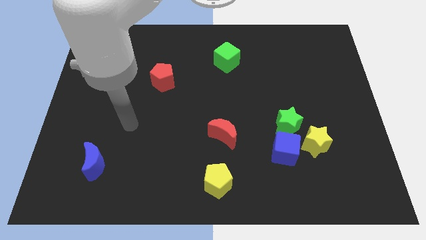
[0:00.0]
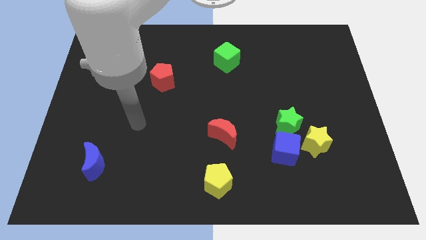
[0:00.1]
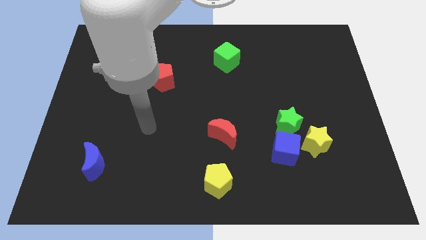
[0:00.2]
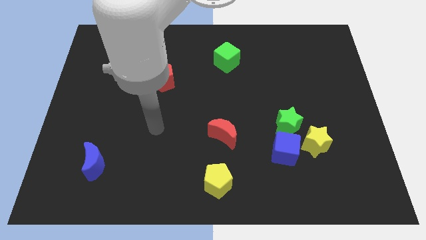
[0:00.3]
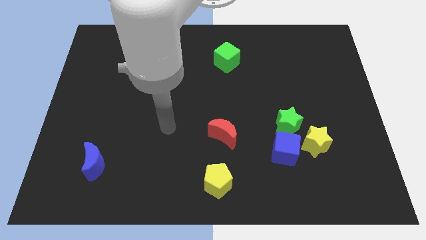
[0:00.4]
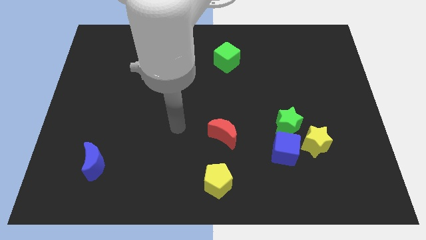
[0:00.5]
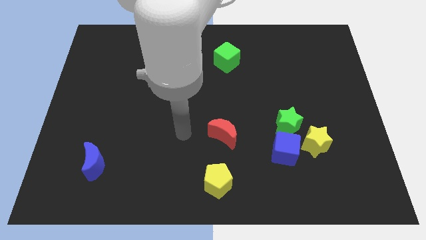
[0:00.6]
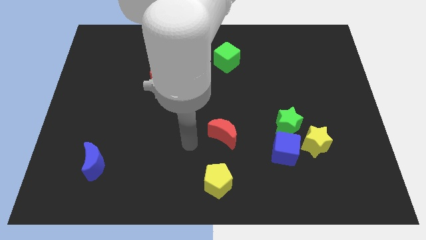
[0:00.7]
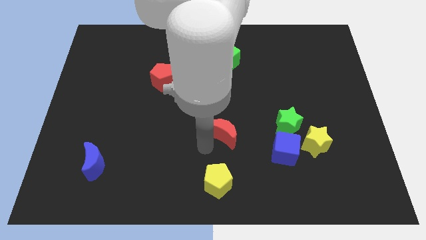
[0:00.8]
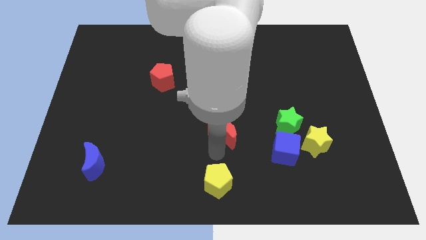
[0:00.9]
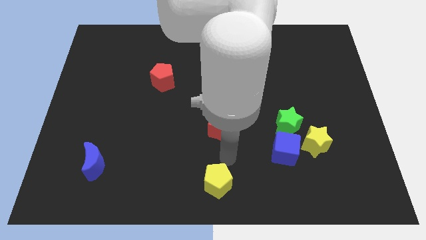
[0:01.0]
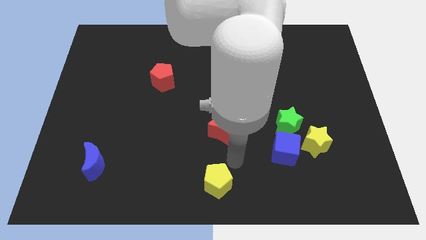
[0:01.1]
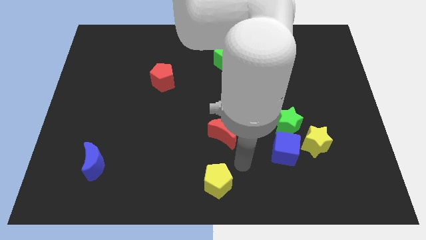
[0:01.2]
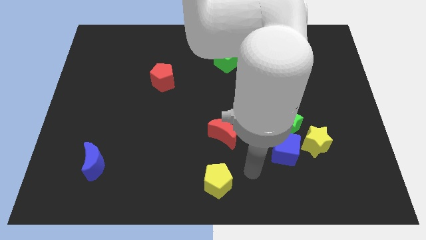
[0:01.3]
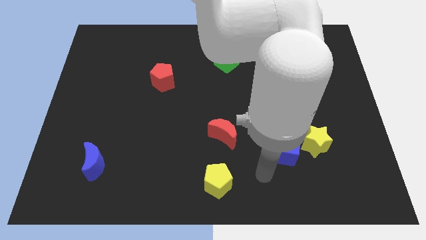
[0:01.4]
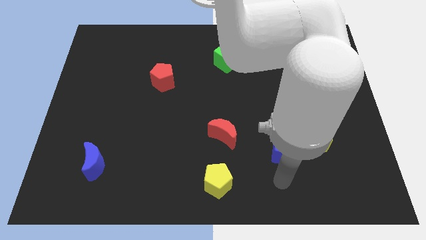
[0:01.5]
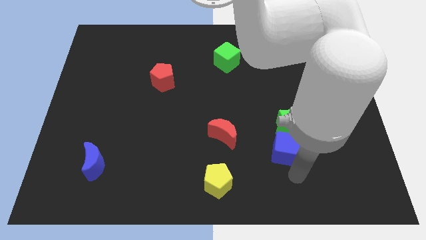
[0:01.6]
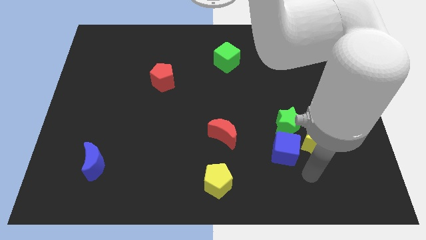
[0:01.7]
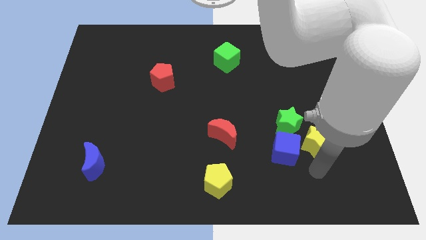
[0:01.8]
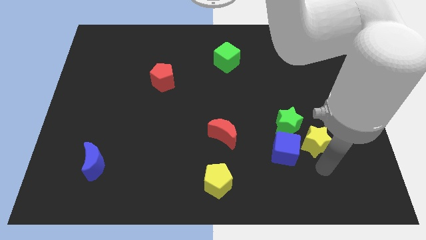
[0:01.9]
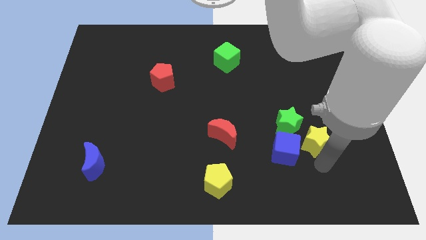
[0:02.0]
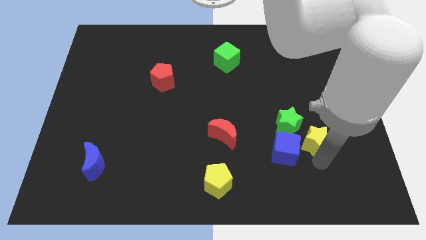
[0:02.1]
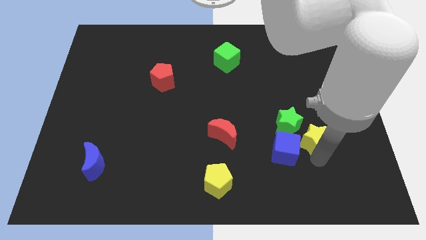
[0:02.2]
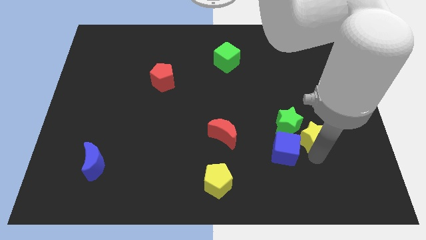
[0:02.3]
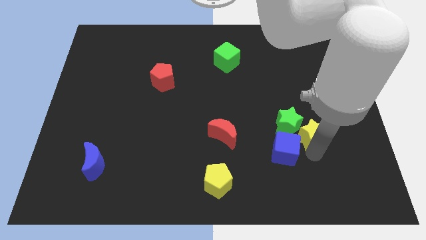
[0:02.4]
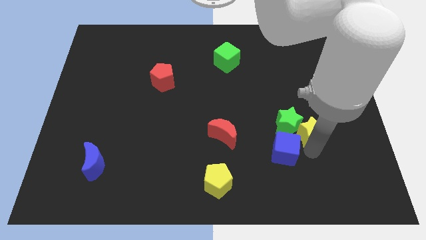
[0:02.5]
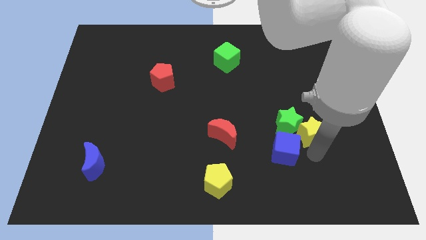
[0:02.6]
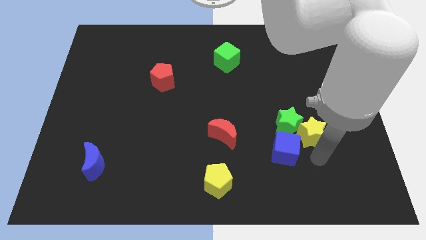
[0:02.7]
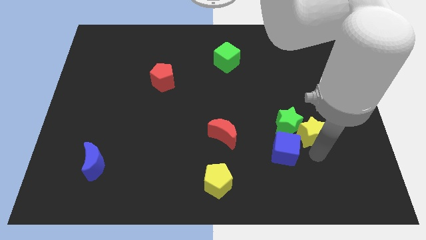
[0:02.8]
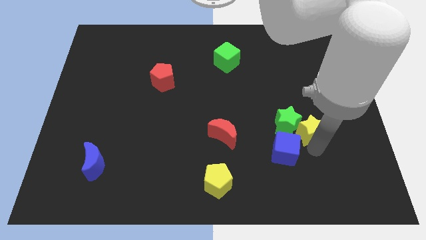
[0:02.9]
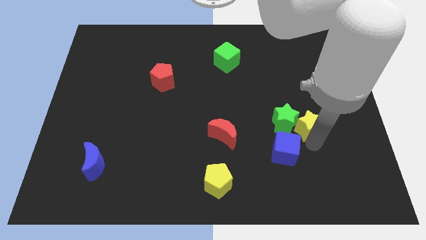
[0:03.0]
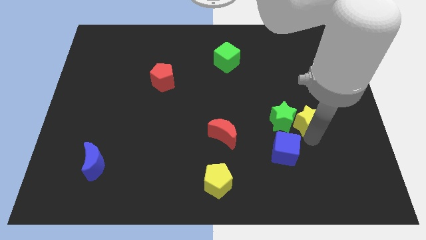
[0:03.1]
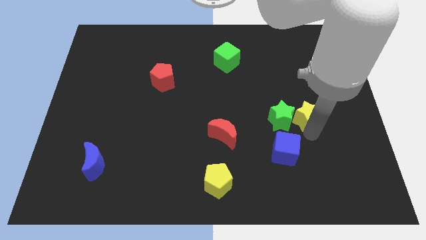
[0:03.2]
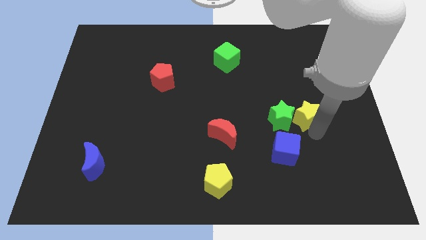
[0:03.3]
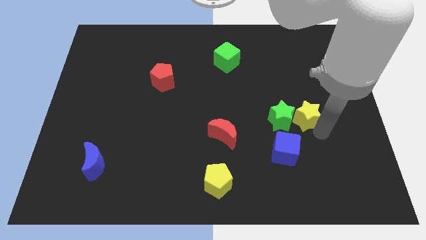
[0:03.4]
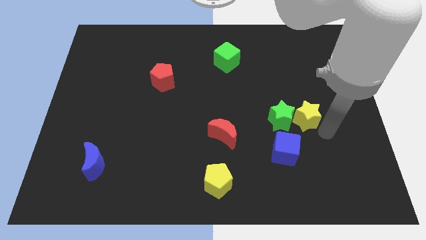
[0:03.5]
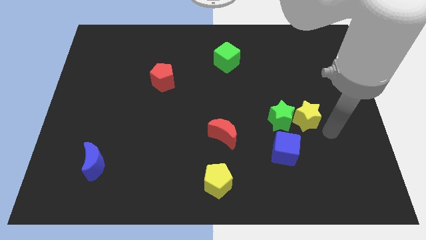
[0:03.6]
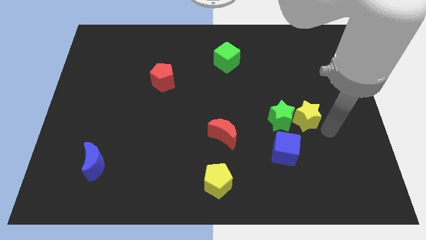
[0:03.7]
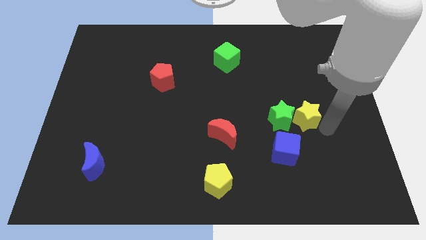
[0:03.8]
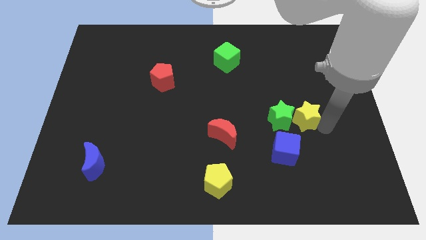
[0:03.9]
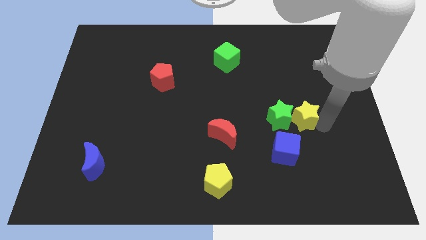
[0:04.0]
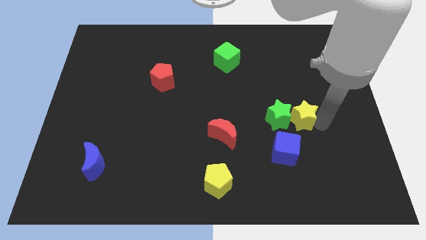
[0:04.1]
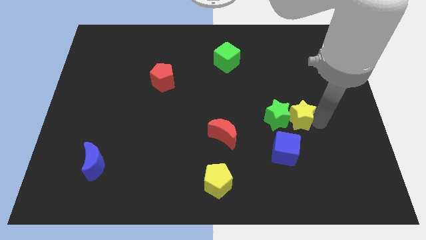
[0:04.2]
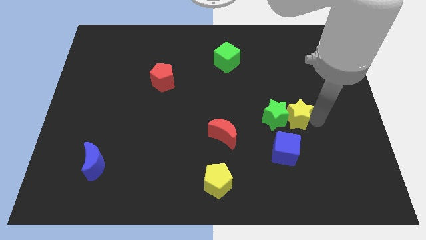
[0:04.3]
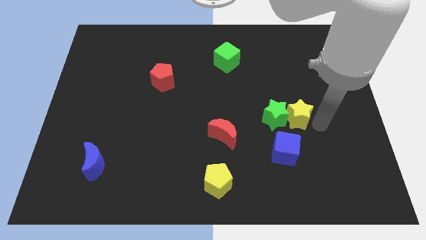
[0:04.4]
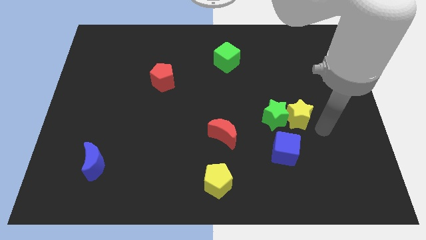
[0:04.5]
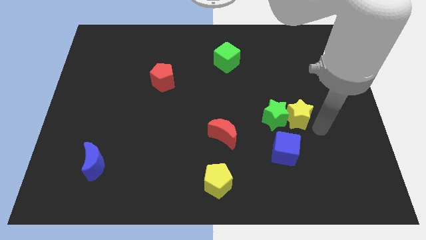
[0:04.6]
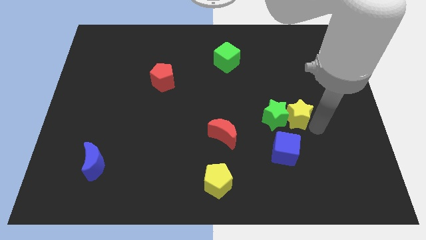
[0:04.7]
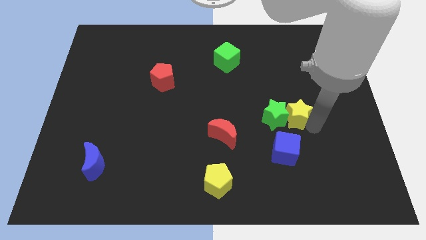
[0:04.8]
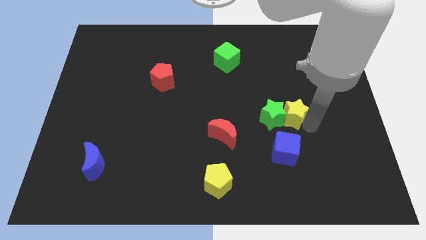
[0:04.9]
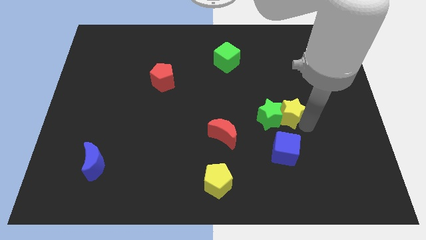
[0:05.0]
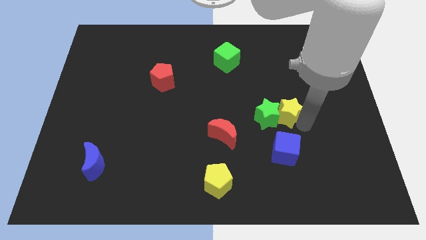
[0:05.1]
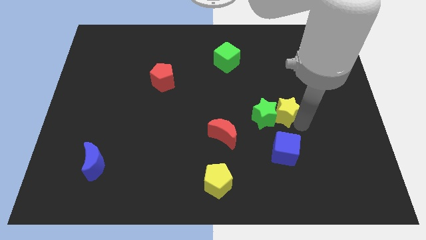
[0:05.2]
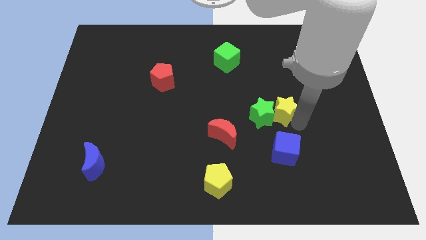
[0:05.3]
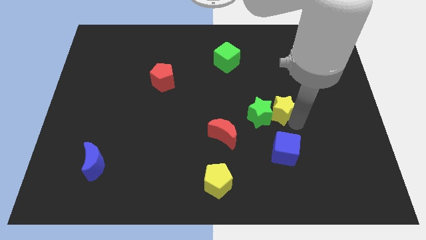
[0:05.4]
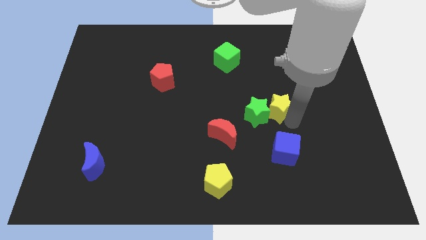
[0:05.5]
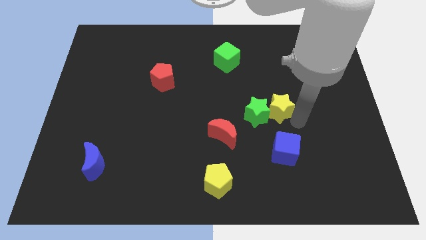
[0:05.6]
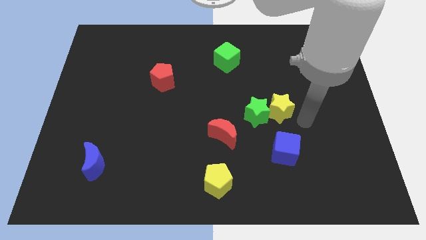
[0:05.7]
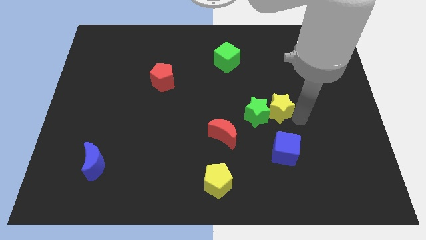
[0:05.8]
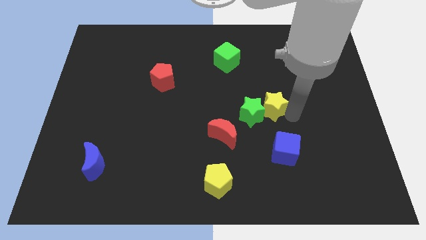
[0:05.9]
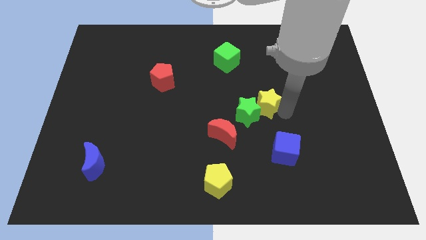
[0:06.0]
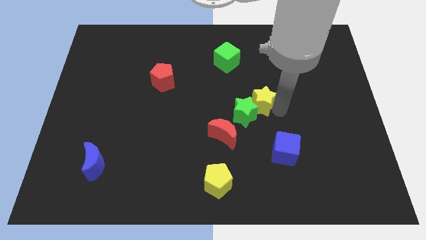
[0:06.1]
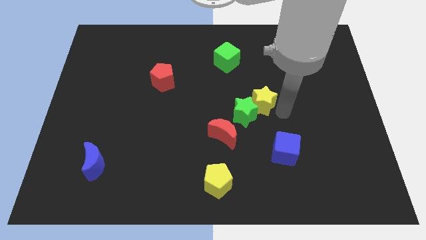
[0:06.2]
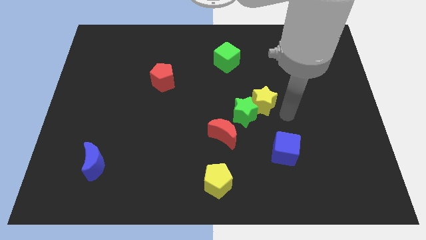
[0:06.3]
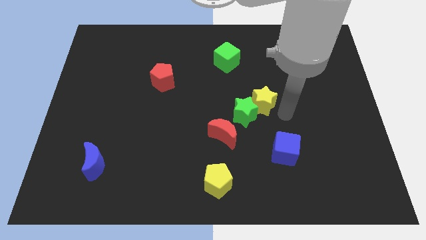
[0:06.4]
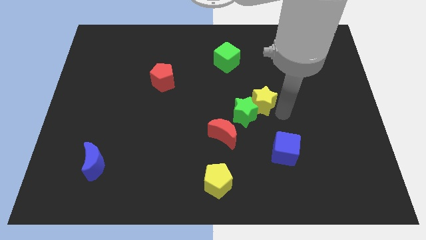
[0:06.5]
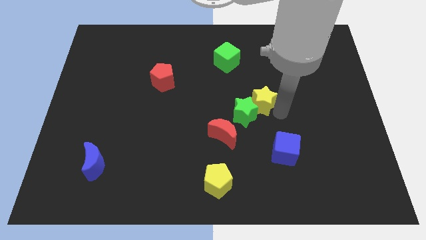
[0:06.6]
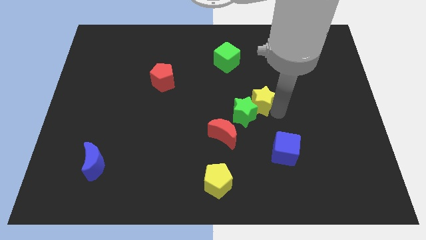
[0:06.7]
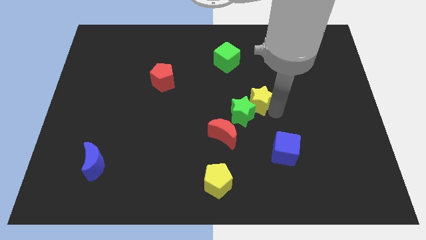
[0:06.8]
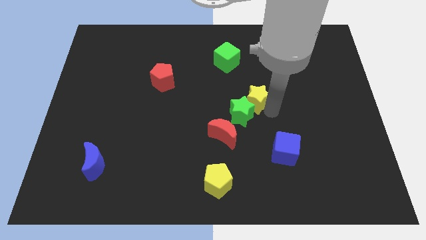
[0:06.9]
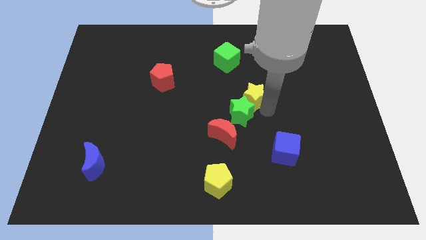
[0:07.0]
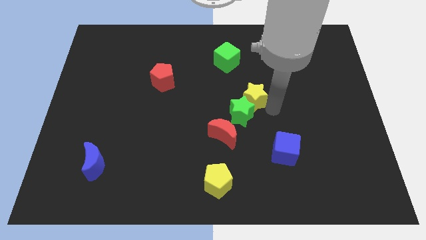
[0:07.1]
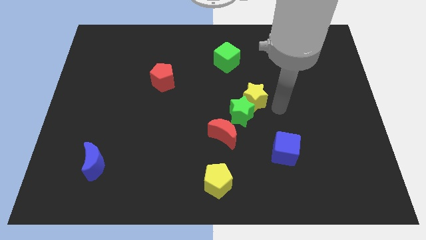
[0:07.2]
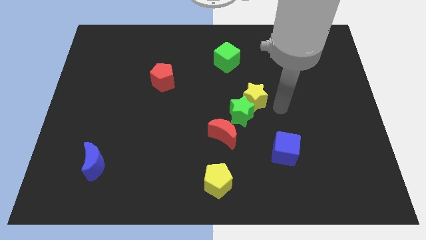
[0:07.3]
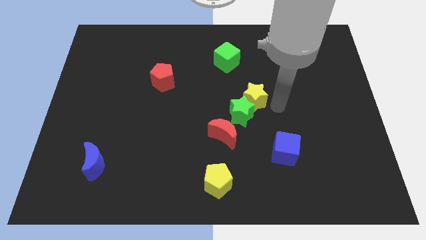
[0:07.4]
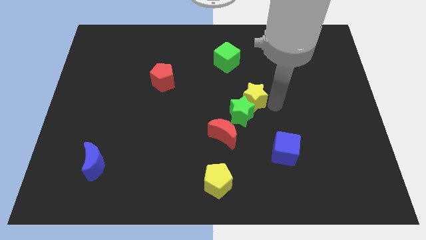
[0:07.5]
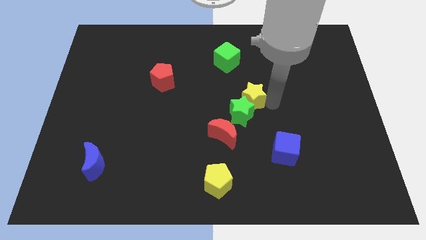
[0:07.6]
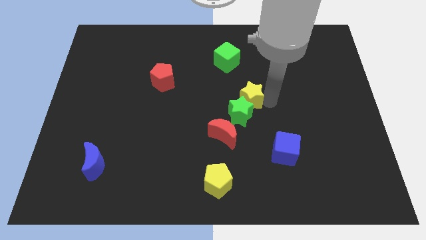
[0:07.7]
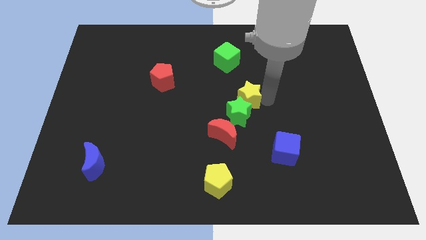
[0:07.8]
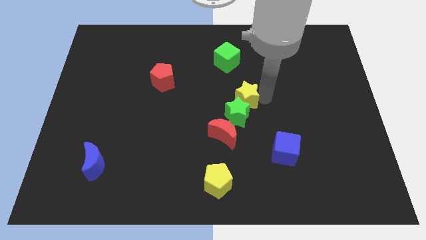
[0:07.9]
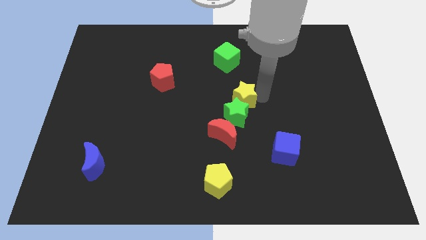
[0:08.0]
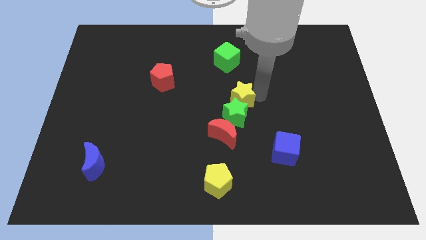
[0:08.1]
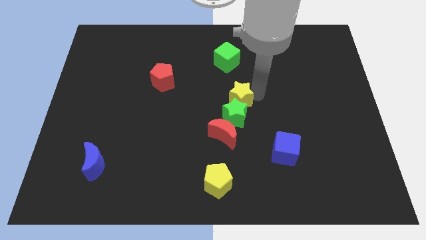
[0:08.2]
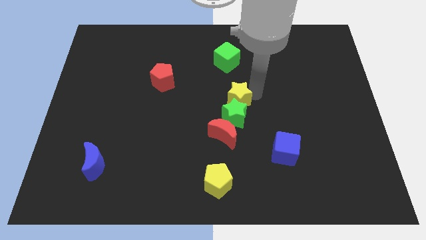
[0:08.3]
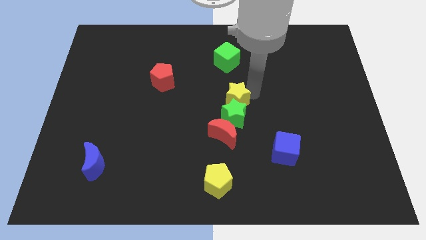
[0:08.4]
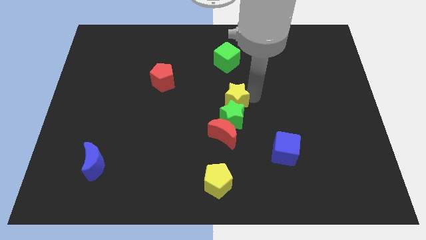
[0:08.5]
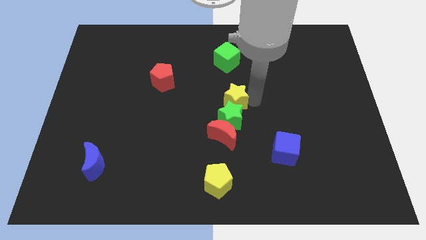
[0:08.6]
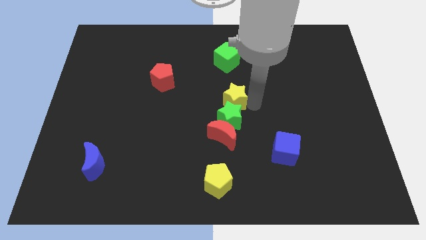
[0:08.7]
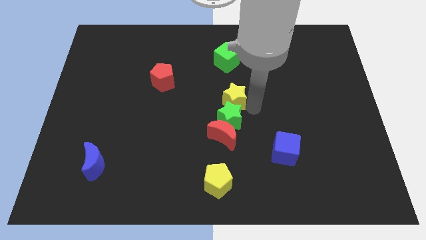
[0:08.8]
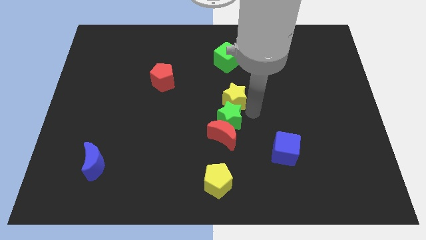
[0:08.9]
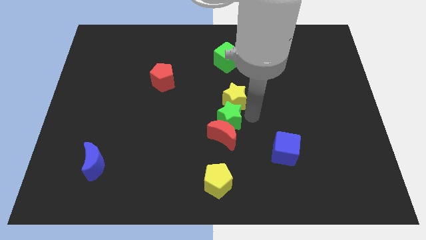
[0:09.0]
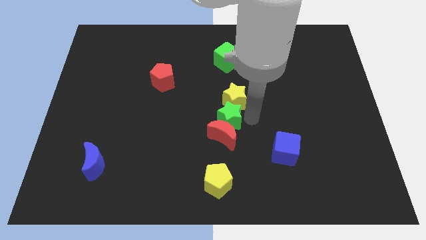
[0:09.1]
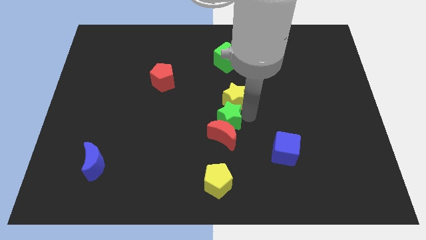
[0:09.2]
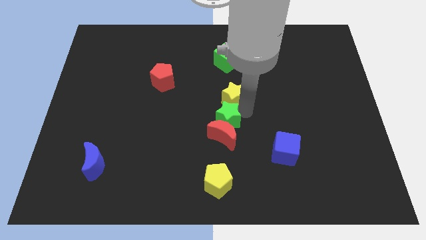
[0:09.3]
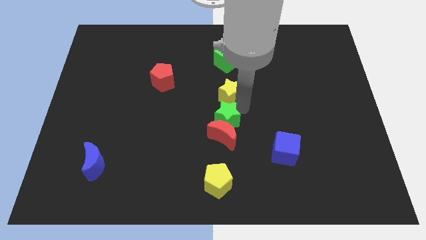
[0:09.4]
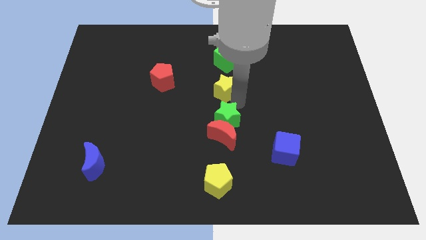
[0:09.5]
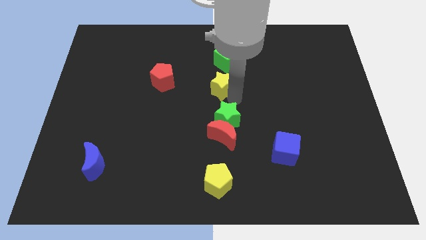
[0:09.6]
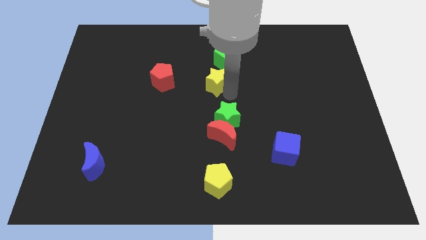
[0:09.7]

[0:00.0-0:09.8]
slide the yellow star to the bottom left side of the green cube
